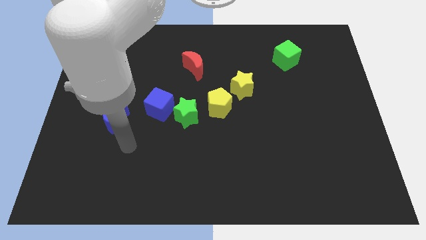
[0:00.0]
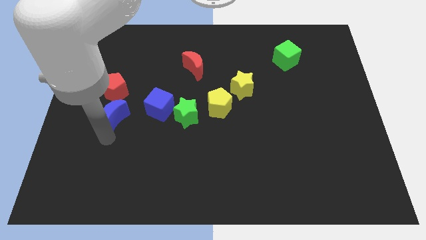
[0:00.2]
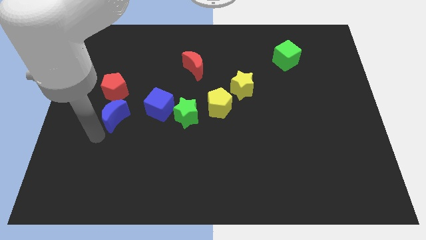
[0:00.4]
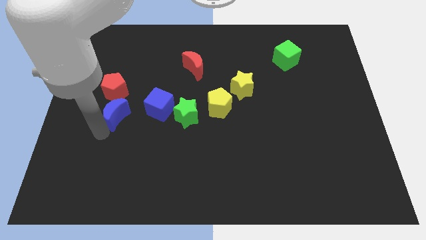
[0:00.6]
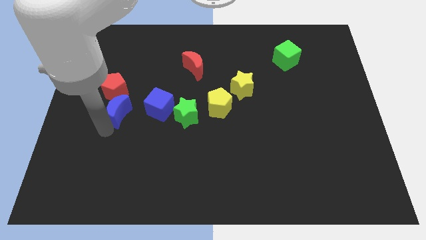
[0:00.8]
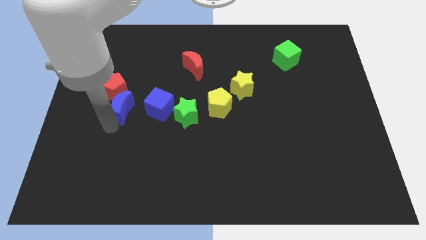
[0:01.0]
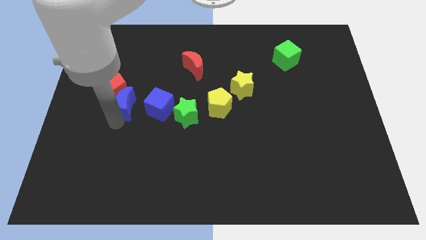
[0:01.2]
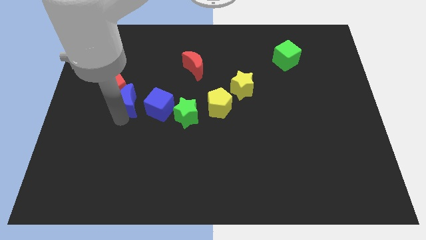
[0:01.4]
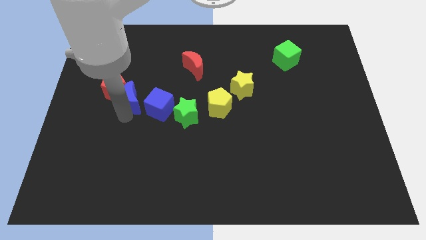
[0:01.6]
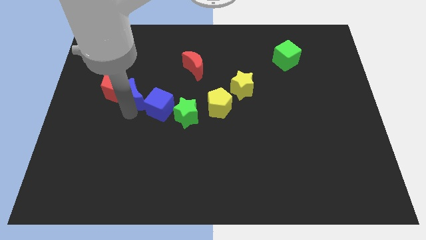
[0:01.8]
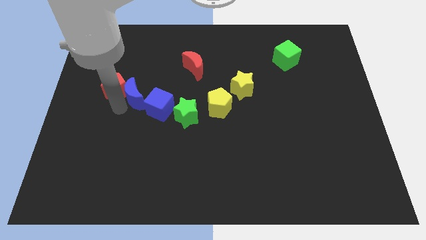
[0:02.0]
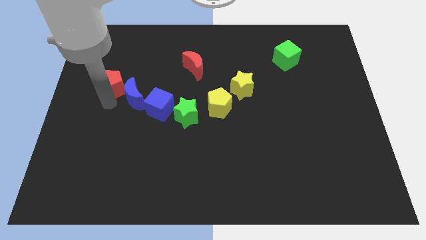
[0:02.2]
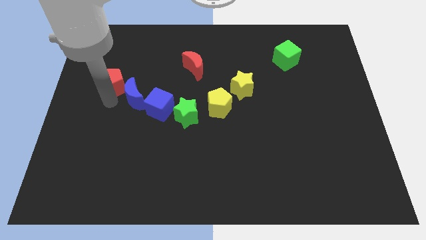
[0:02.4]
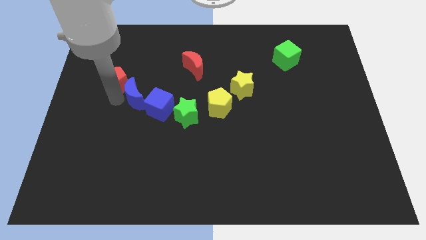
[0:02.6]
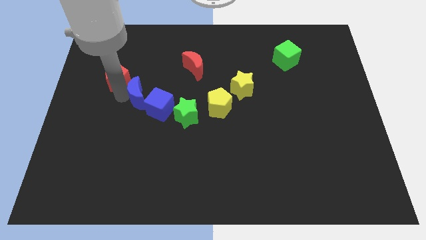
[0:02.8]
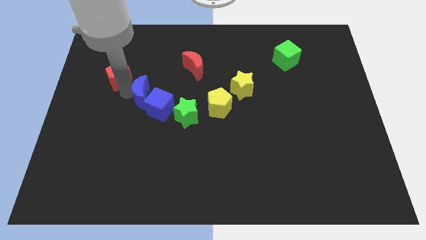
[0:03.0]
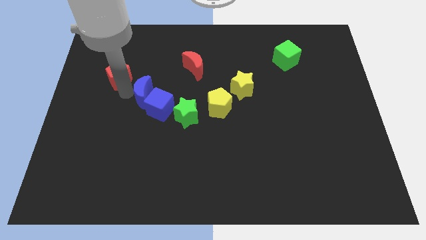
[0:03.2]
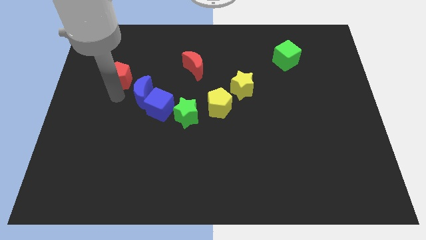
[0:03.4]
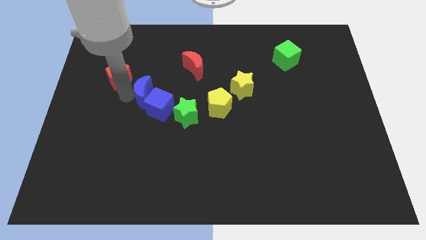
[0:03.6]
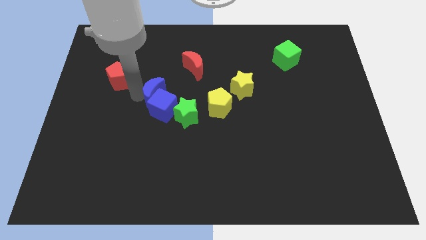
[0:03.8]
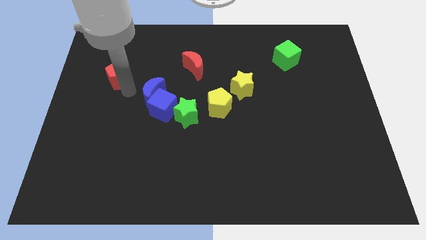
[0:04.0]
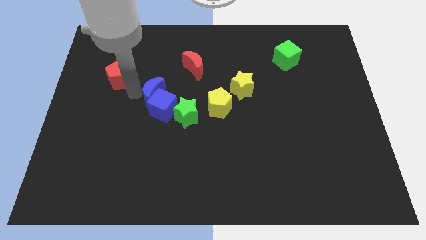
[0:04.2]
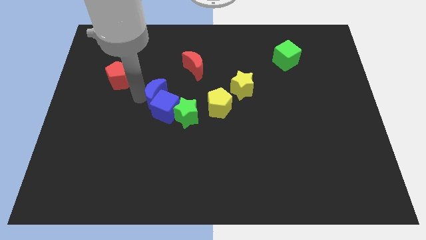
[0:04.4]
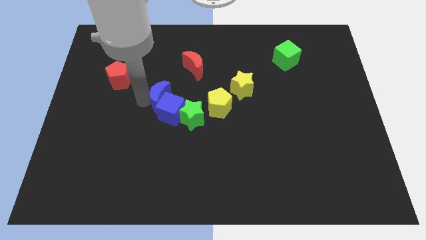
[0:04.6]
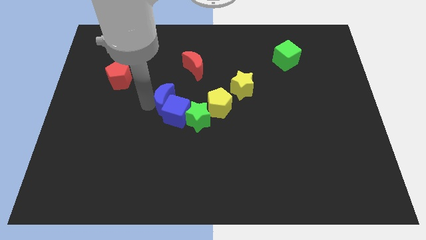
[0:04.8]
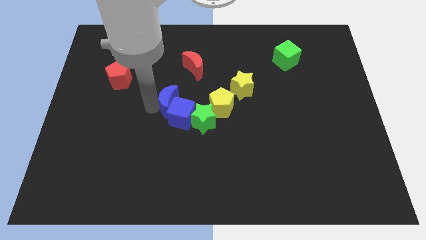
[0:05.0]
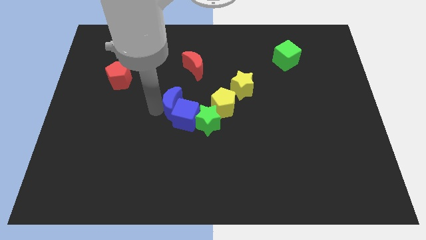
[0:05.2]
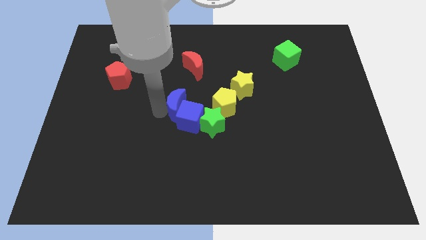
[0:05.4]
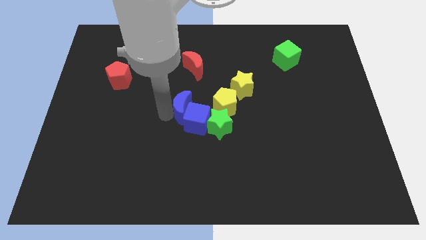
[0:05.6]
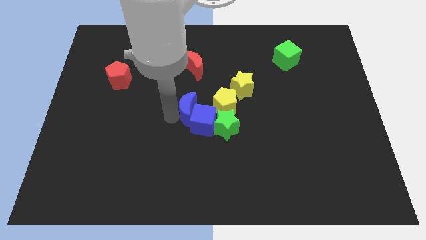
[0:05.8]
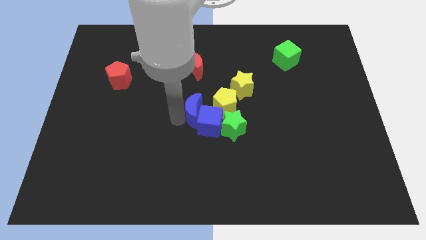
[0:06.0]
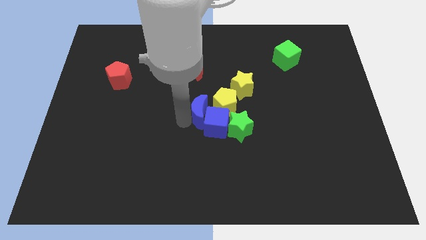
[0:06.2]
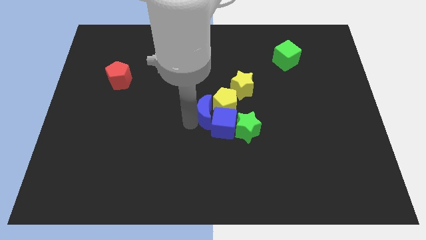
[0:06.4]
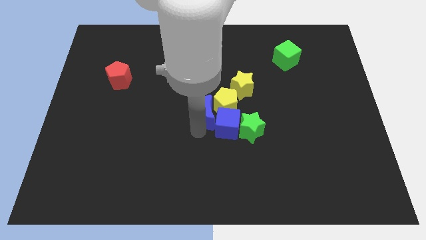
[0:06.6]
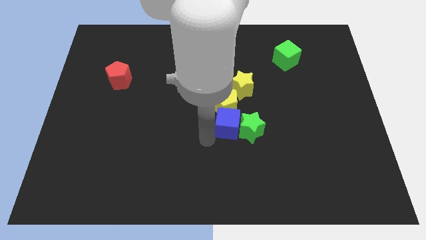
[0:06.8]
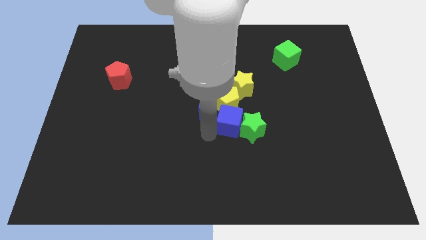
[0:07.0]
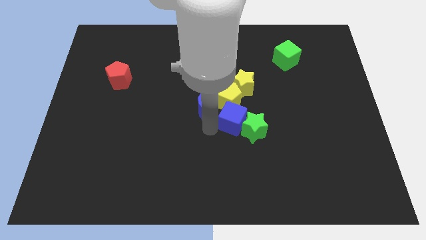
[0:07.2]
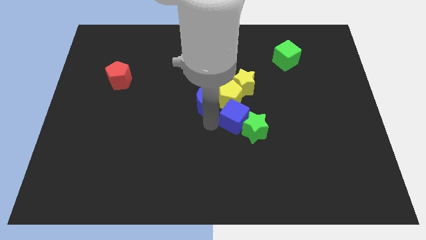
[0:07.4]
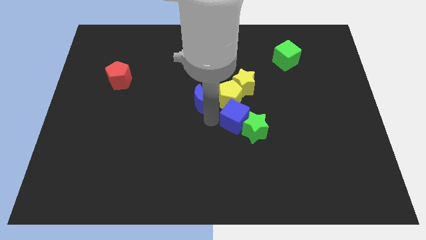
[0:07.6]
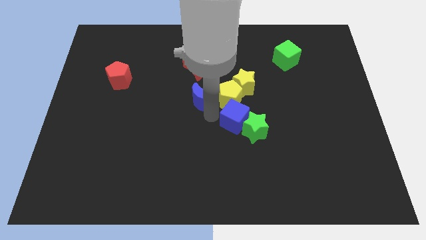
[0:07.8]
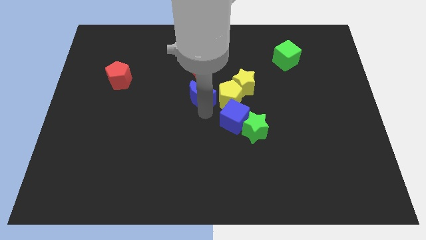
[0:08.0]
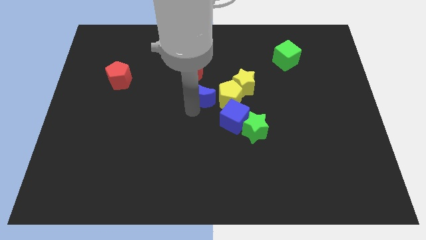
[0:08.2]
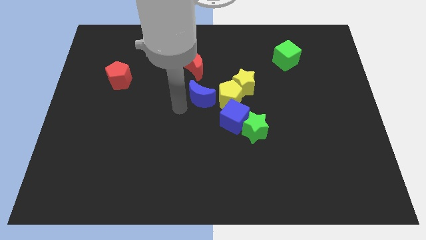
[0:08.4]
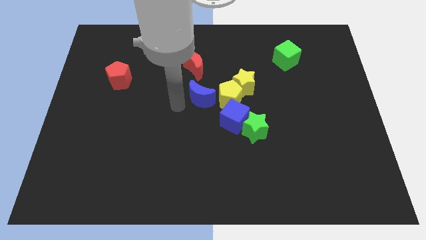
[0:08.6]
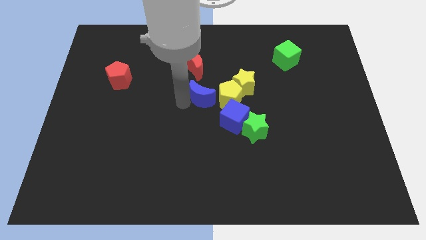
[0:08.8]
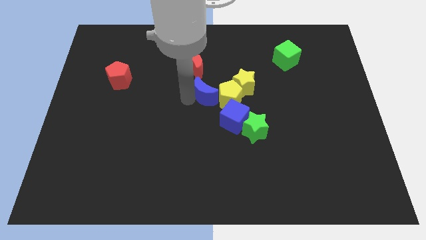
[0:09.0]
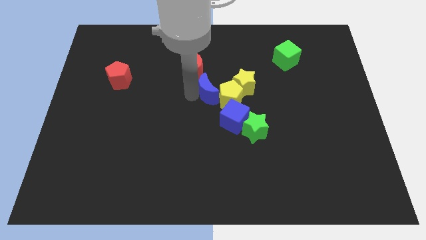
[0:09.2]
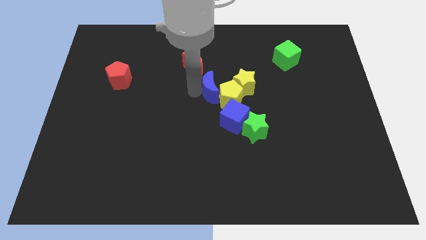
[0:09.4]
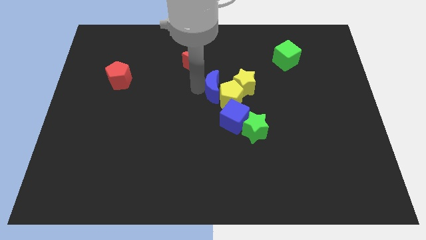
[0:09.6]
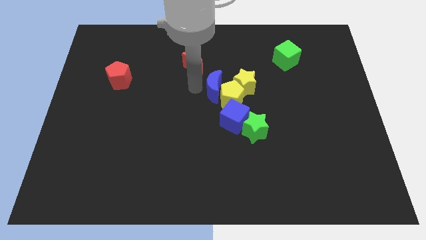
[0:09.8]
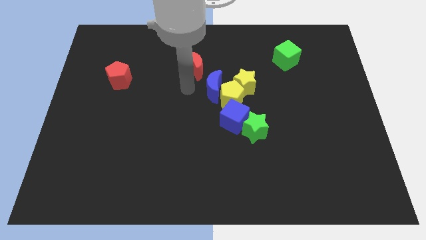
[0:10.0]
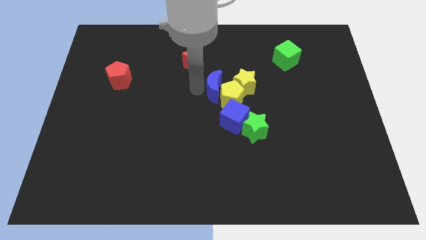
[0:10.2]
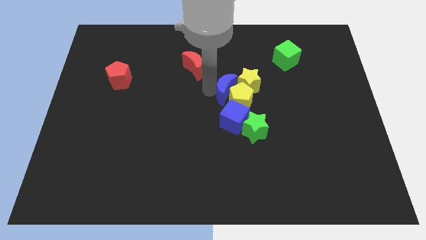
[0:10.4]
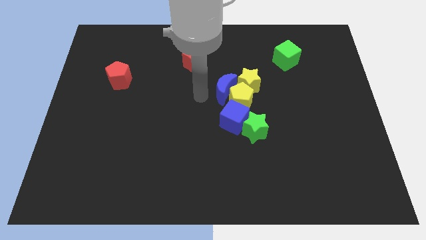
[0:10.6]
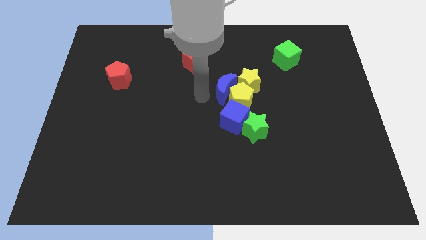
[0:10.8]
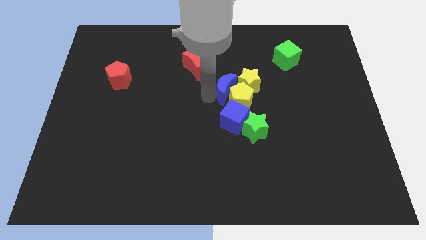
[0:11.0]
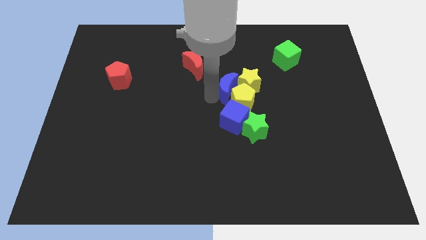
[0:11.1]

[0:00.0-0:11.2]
put the blue moon close to the yellow star

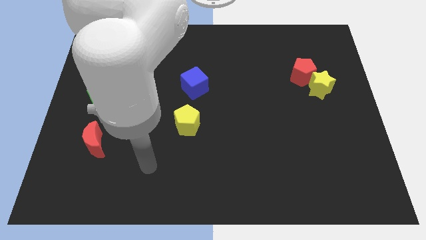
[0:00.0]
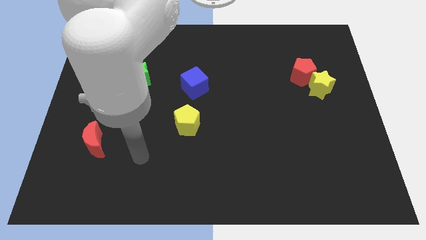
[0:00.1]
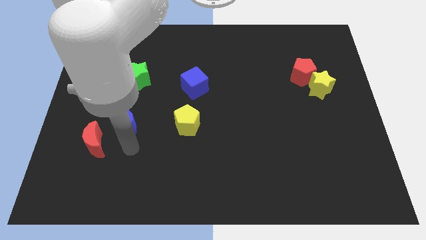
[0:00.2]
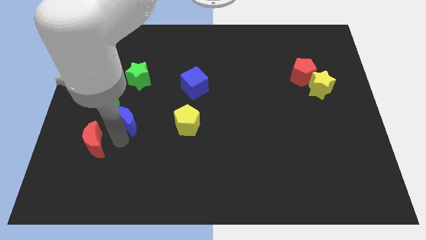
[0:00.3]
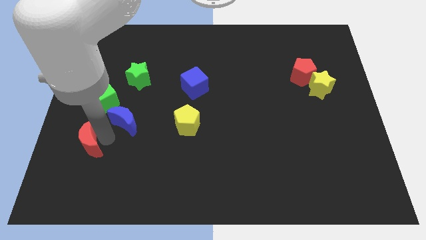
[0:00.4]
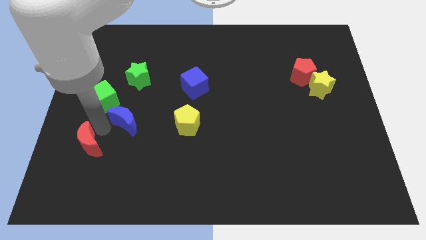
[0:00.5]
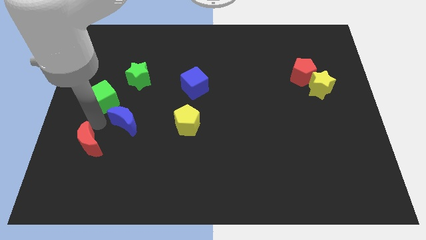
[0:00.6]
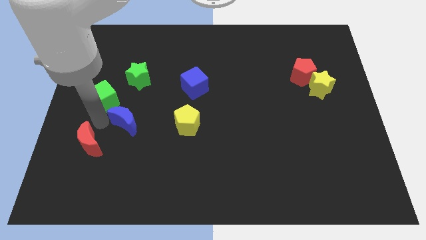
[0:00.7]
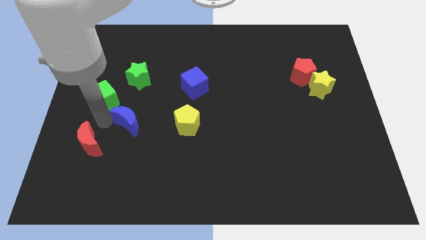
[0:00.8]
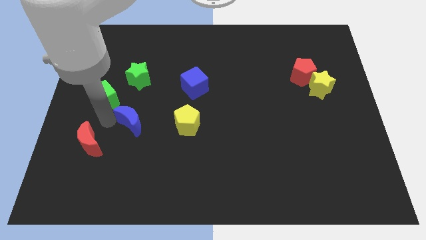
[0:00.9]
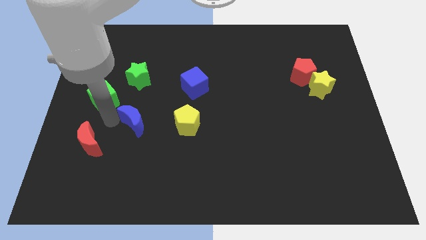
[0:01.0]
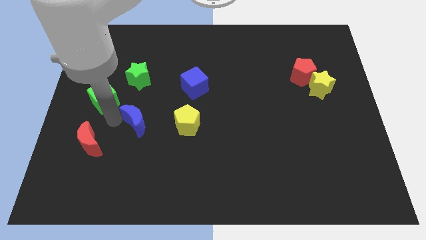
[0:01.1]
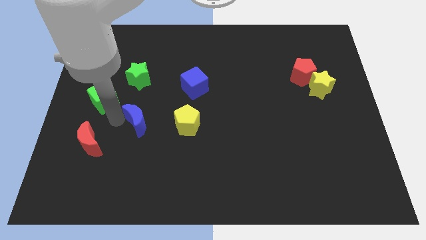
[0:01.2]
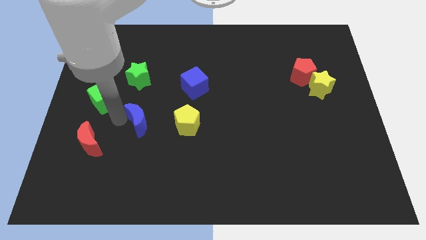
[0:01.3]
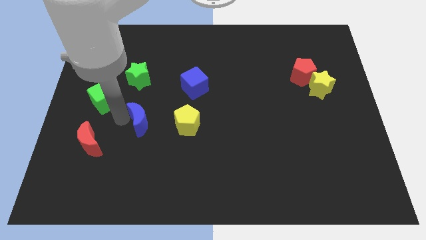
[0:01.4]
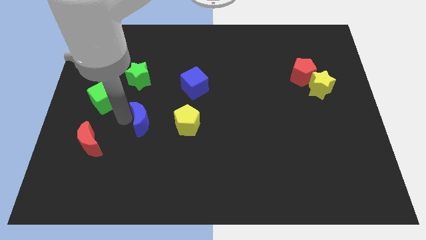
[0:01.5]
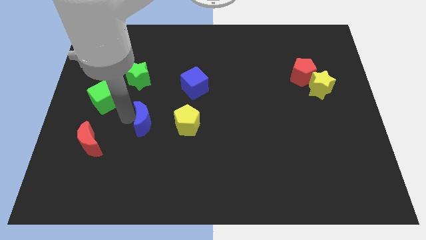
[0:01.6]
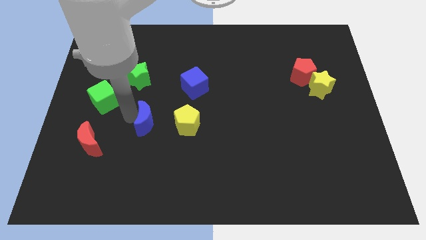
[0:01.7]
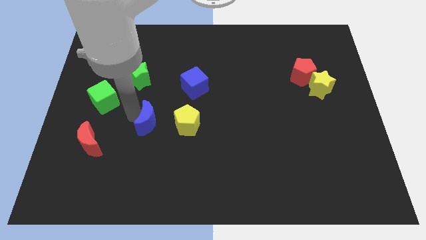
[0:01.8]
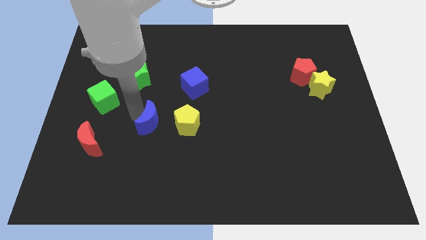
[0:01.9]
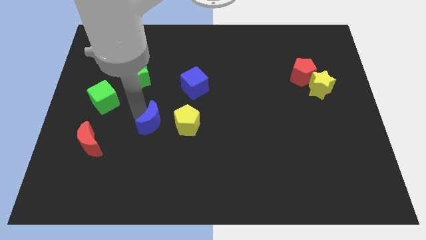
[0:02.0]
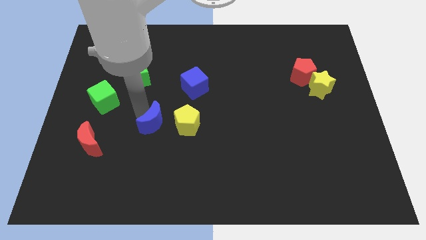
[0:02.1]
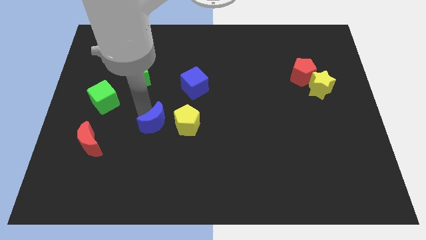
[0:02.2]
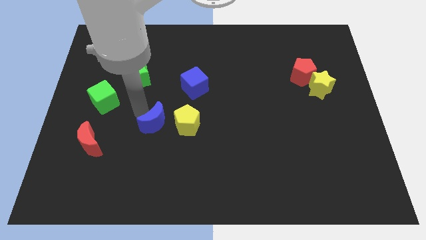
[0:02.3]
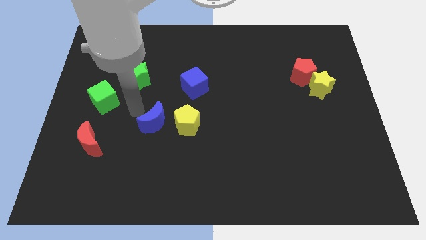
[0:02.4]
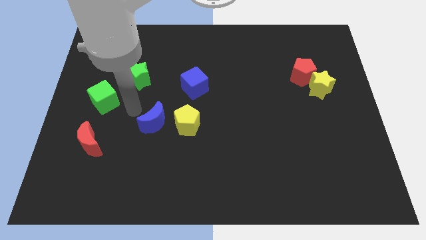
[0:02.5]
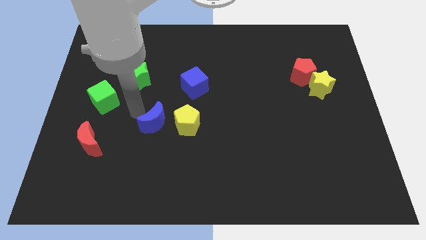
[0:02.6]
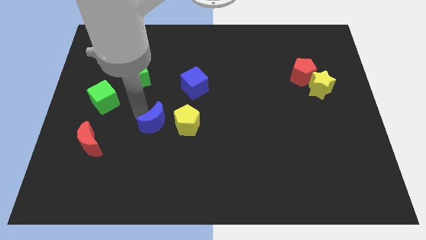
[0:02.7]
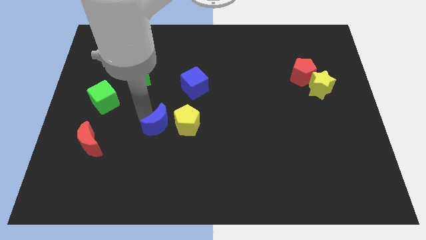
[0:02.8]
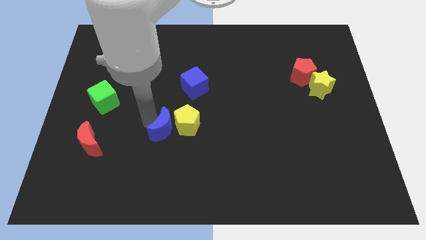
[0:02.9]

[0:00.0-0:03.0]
push the blue moon to the yellow pentagon
